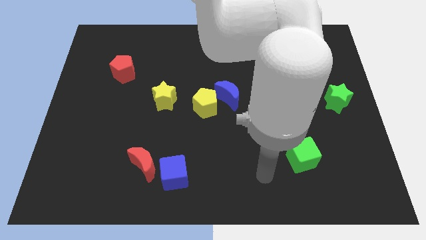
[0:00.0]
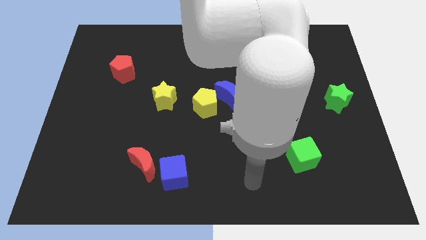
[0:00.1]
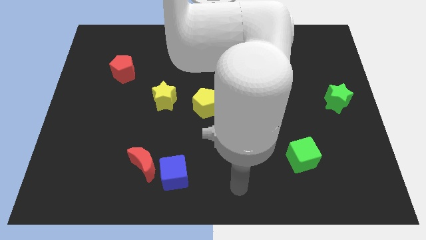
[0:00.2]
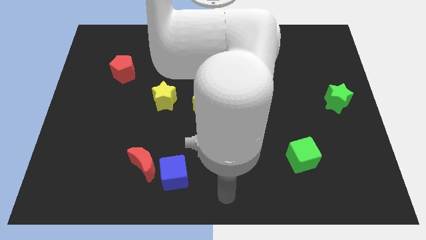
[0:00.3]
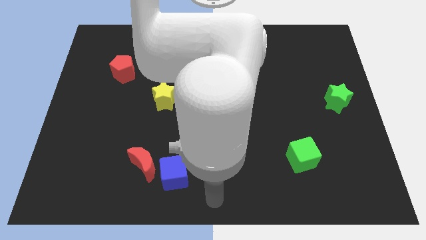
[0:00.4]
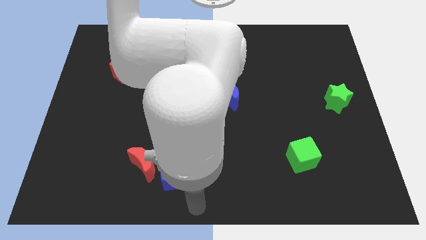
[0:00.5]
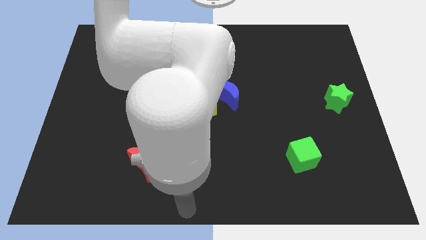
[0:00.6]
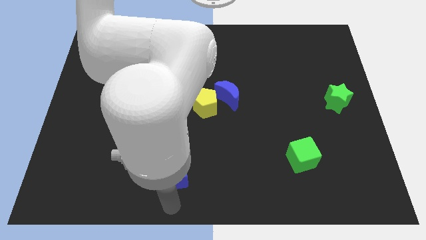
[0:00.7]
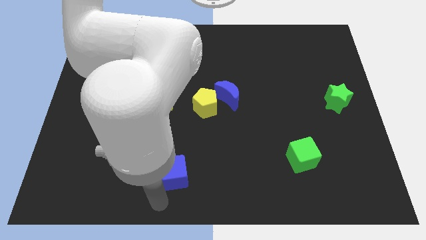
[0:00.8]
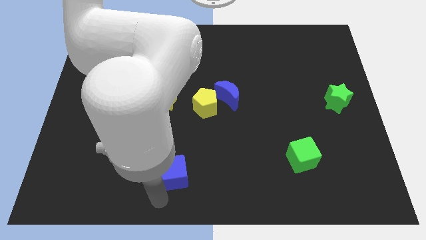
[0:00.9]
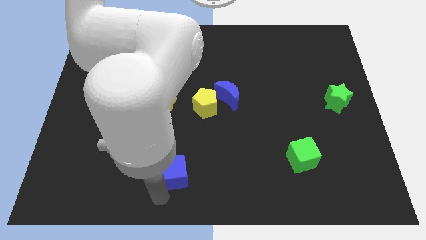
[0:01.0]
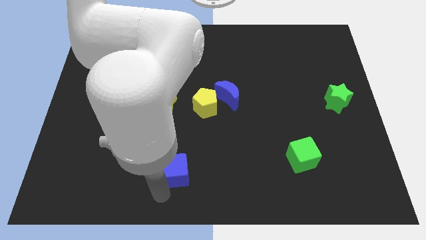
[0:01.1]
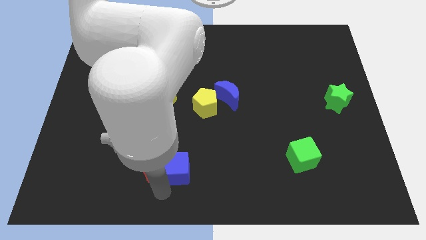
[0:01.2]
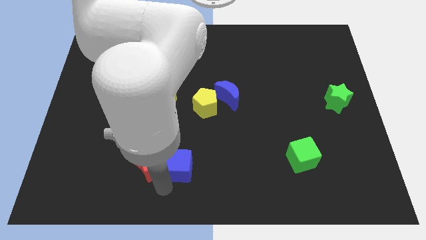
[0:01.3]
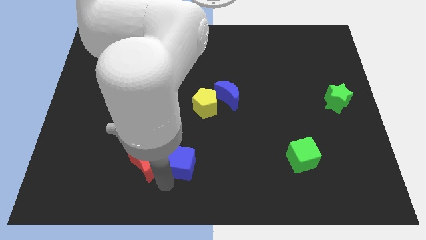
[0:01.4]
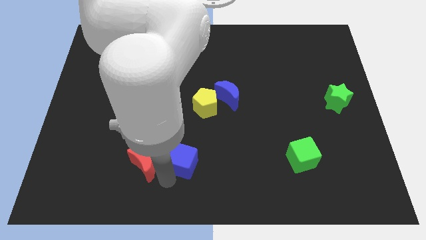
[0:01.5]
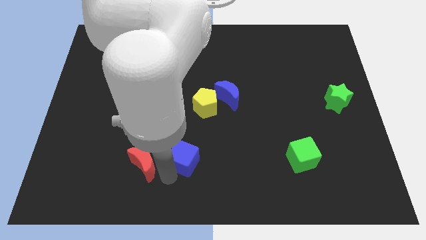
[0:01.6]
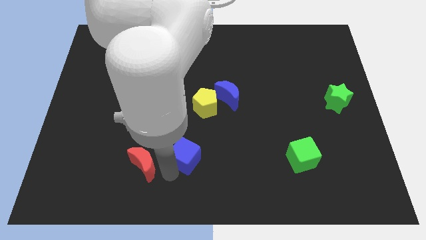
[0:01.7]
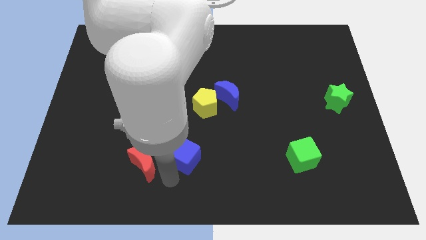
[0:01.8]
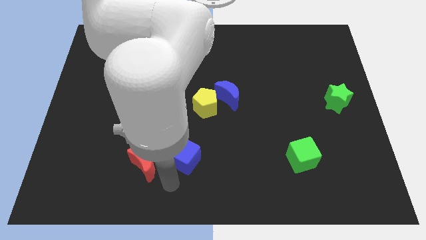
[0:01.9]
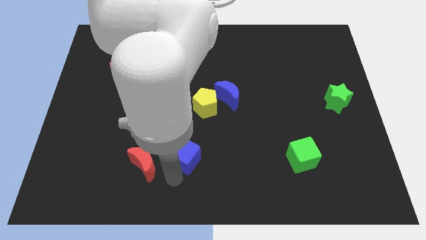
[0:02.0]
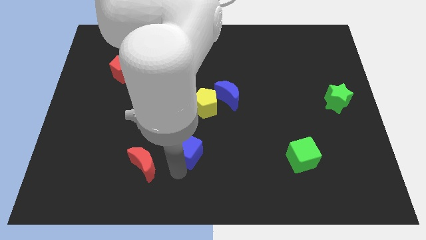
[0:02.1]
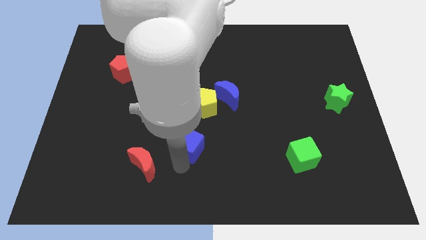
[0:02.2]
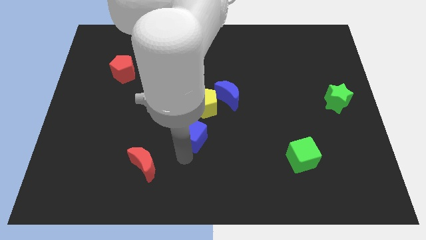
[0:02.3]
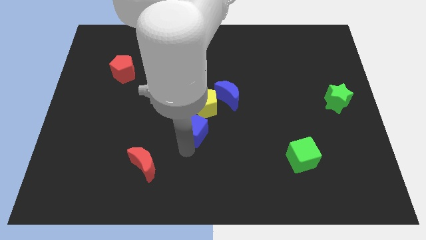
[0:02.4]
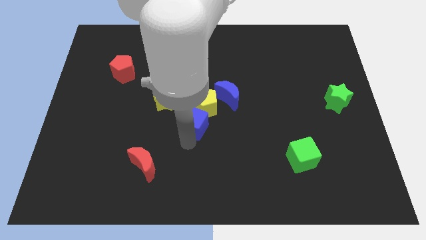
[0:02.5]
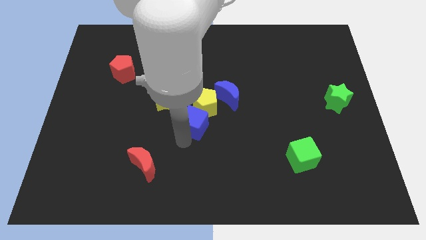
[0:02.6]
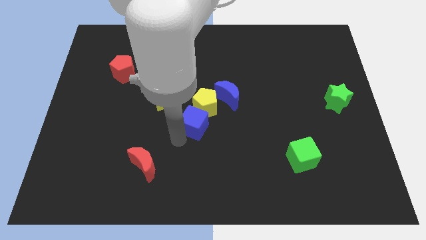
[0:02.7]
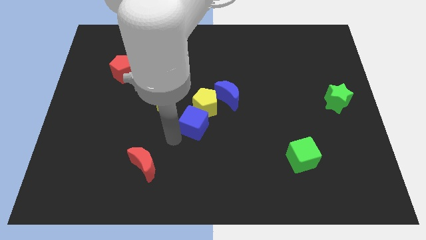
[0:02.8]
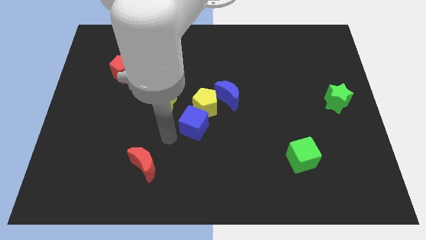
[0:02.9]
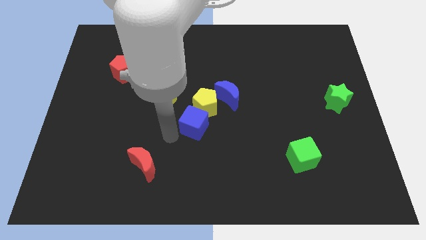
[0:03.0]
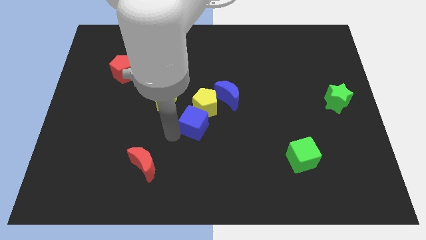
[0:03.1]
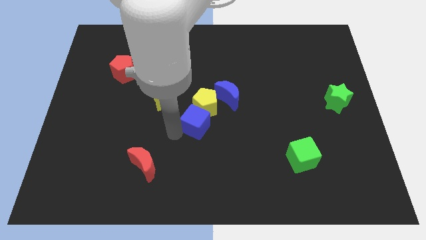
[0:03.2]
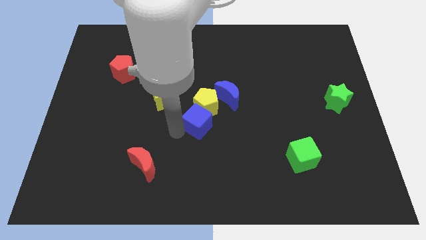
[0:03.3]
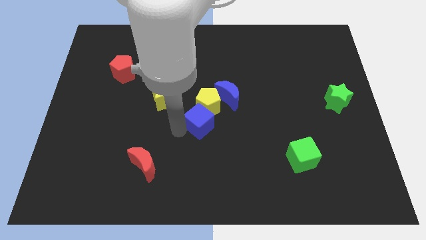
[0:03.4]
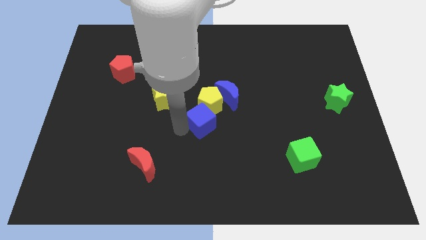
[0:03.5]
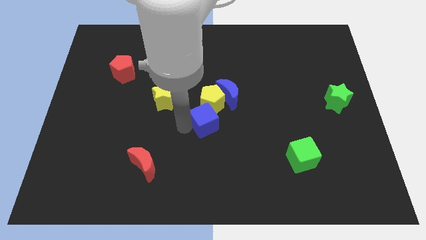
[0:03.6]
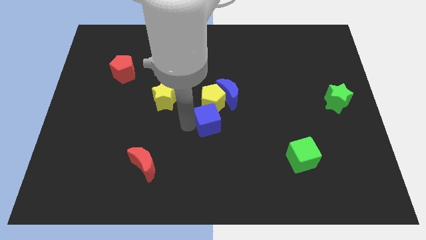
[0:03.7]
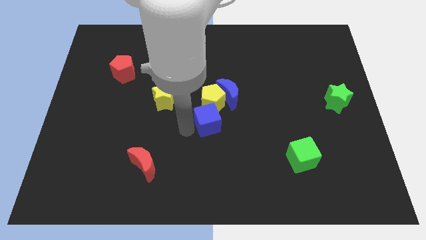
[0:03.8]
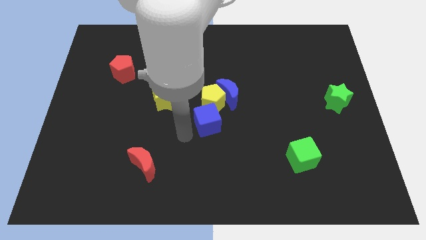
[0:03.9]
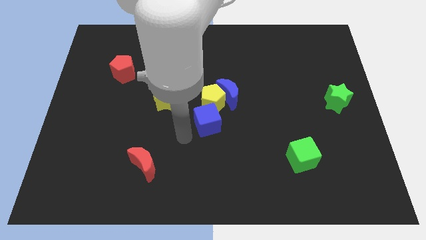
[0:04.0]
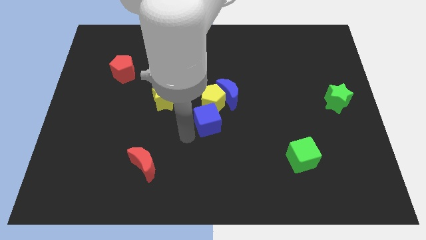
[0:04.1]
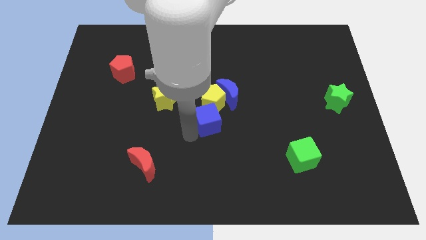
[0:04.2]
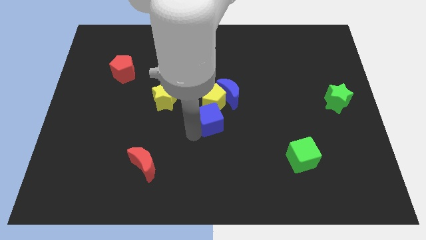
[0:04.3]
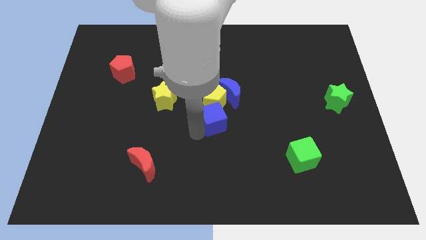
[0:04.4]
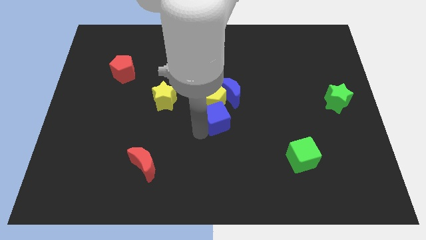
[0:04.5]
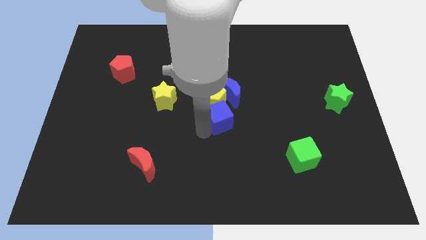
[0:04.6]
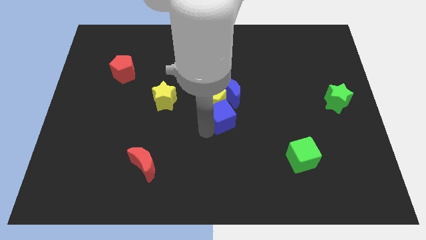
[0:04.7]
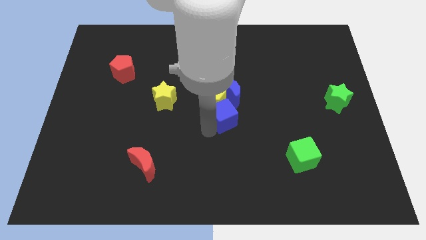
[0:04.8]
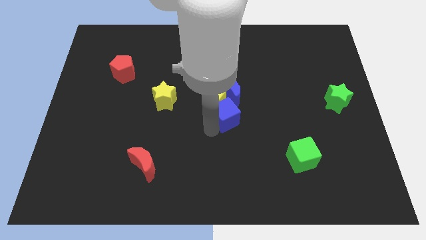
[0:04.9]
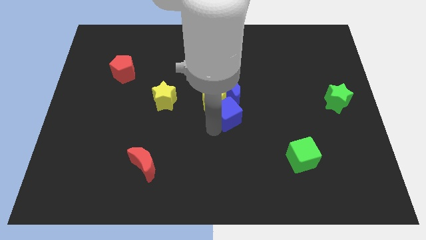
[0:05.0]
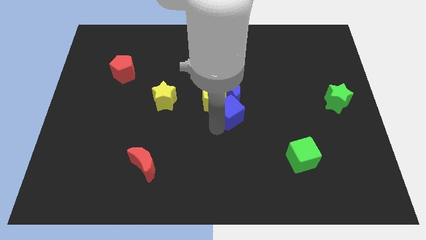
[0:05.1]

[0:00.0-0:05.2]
move the blue cube towards the blue moon

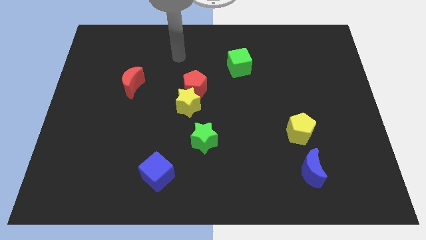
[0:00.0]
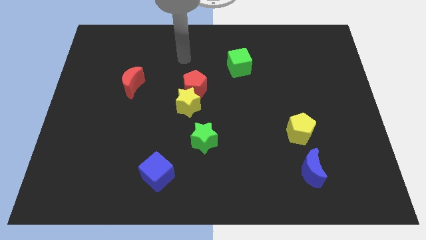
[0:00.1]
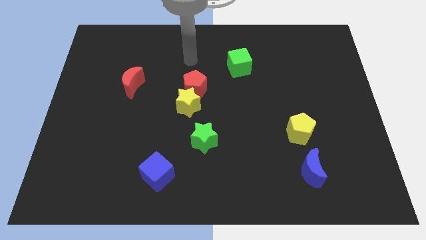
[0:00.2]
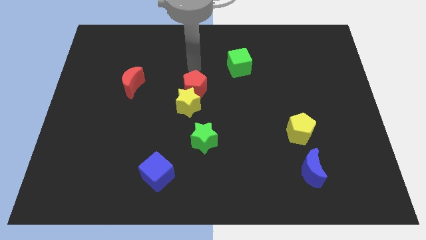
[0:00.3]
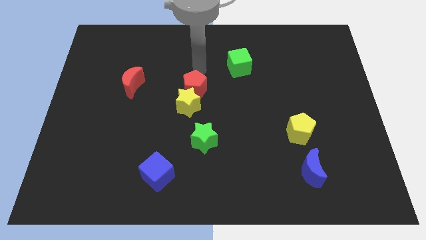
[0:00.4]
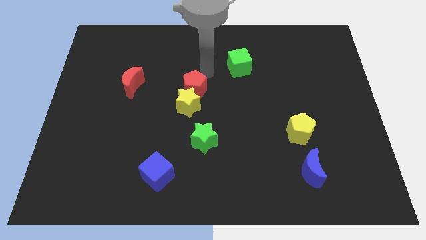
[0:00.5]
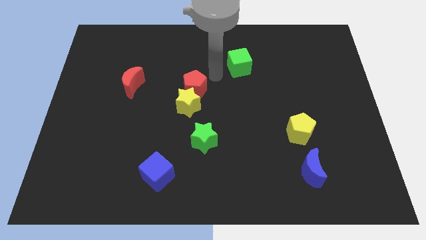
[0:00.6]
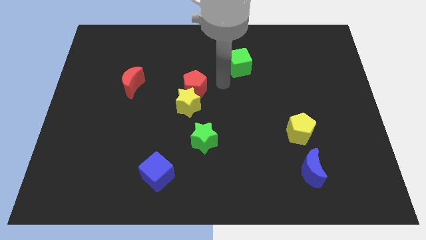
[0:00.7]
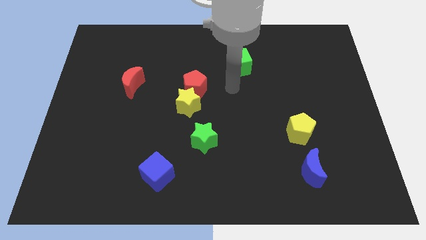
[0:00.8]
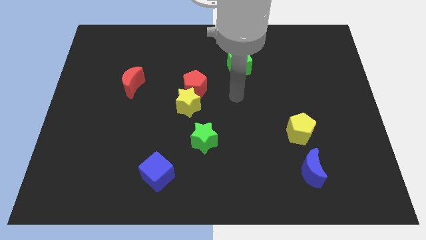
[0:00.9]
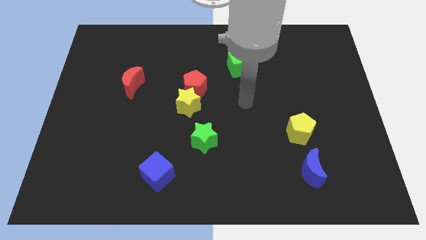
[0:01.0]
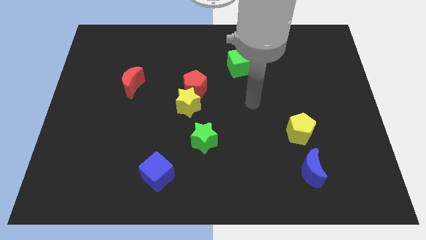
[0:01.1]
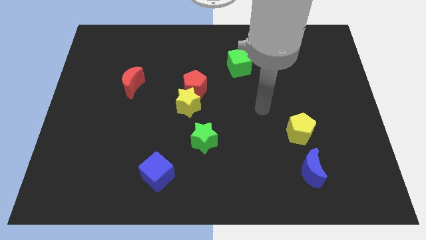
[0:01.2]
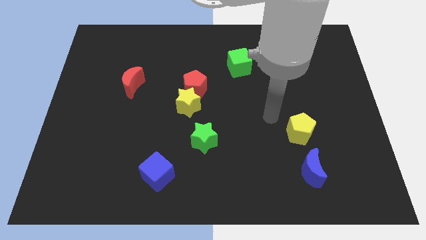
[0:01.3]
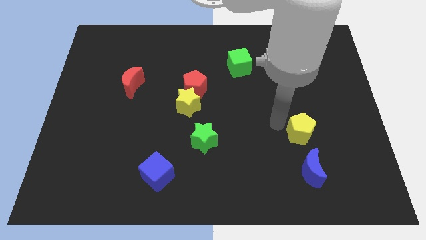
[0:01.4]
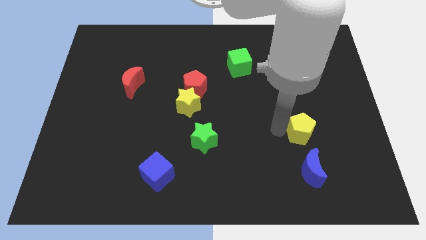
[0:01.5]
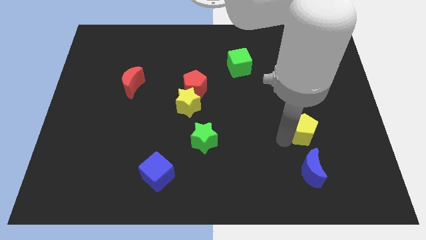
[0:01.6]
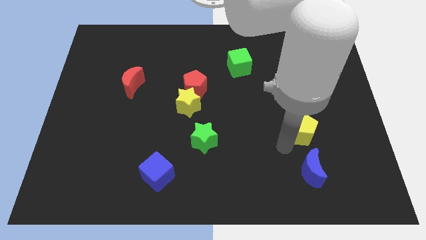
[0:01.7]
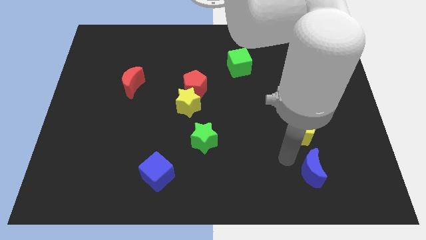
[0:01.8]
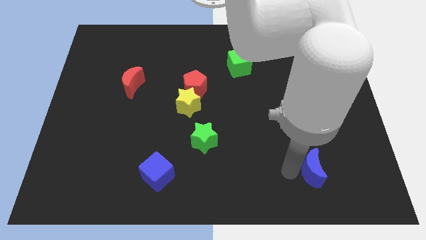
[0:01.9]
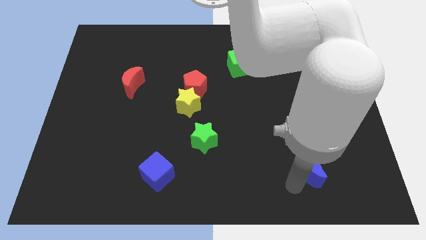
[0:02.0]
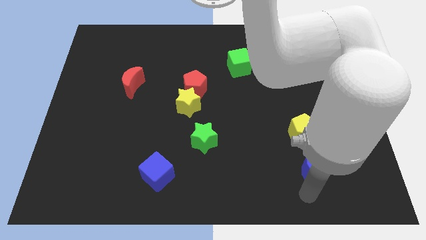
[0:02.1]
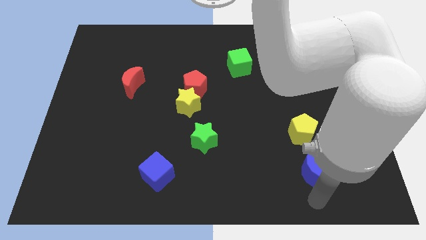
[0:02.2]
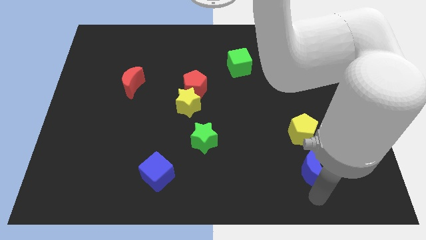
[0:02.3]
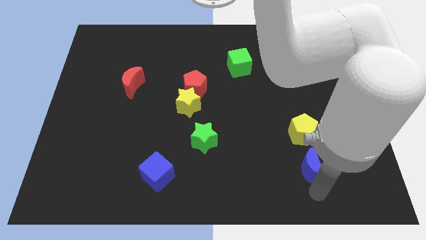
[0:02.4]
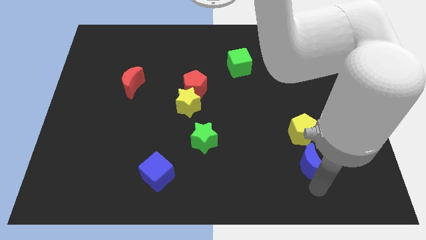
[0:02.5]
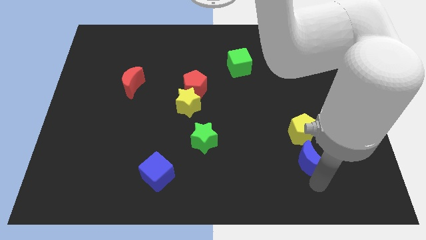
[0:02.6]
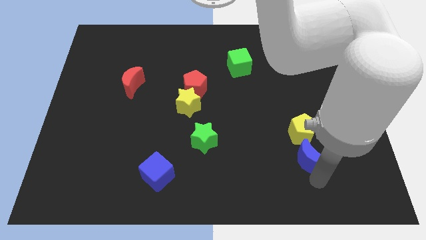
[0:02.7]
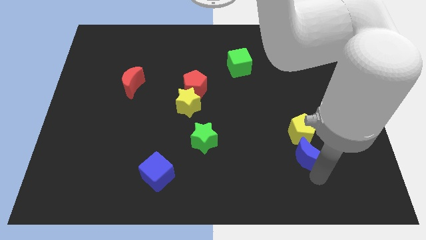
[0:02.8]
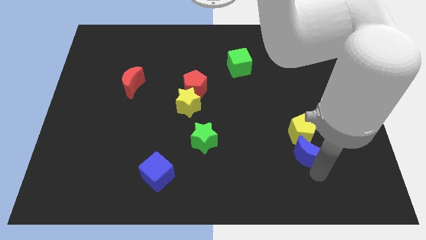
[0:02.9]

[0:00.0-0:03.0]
slide the blue moon next to the yellow pentagon
